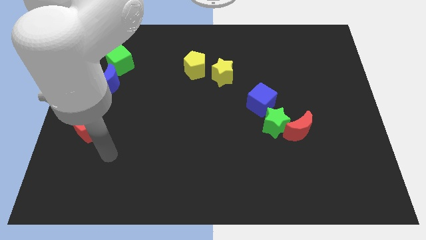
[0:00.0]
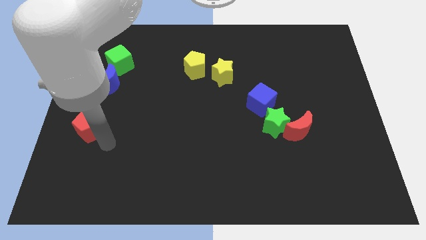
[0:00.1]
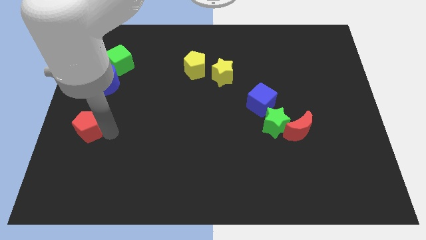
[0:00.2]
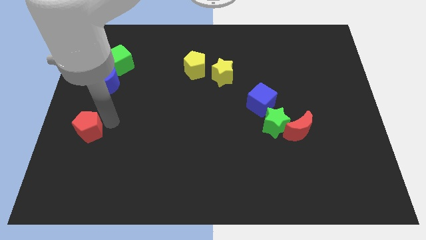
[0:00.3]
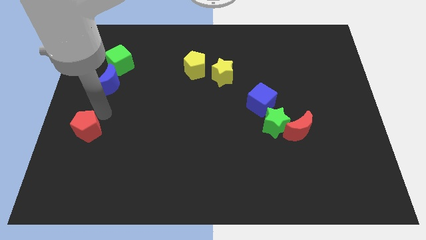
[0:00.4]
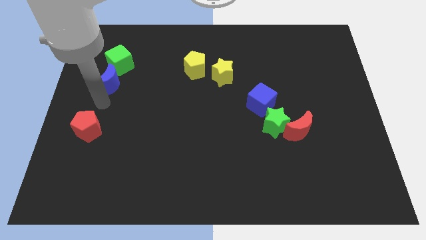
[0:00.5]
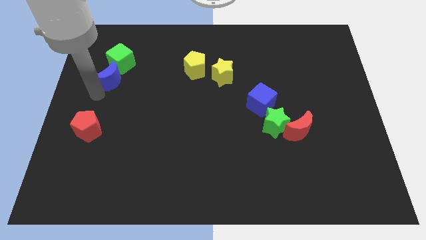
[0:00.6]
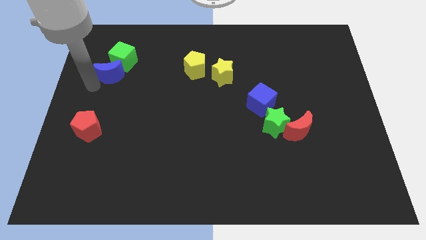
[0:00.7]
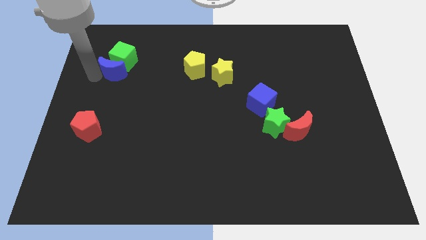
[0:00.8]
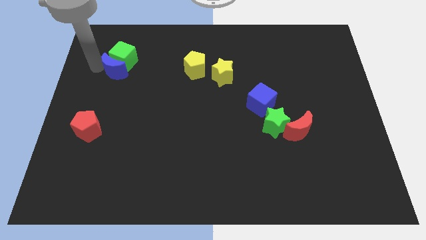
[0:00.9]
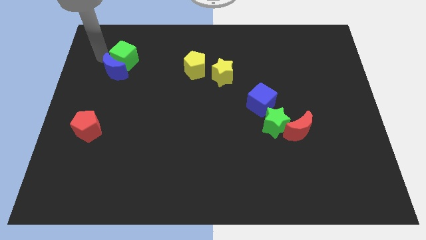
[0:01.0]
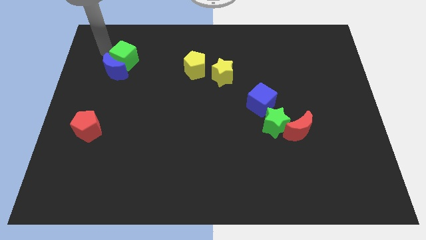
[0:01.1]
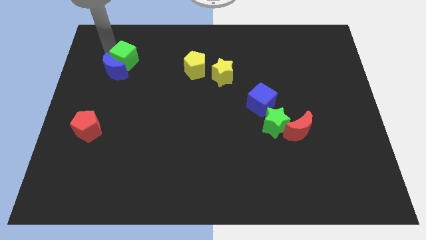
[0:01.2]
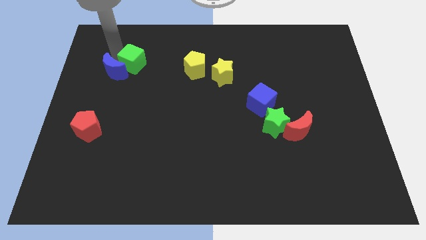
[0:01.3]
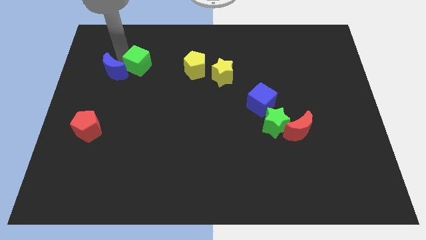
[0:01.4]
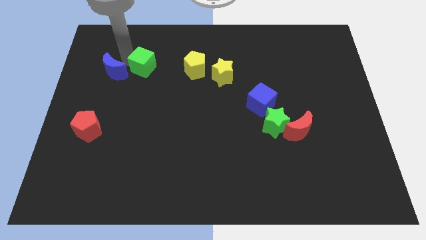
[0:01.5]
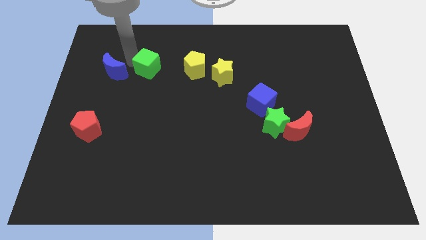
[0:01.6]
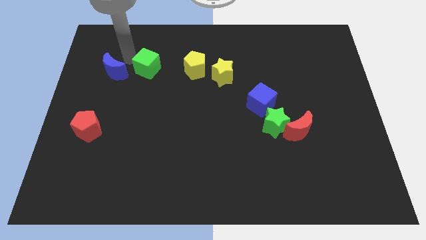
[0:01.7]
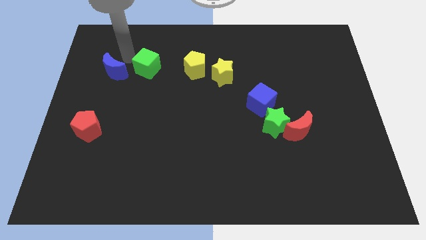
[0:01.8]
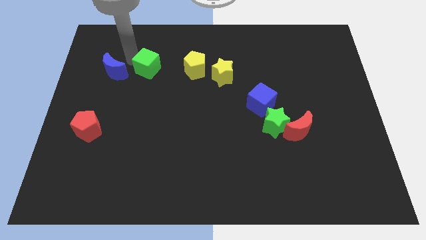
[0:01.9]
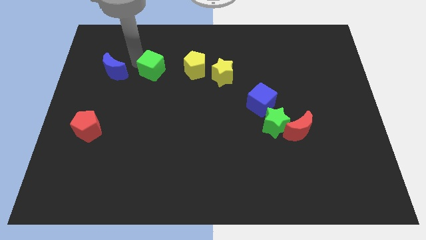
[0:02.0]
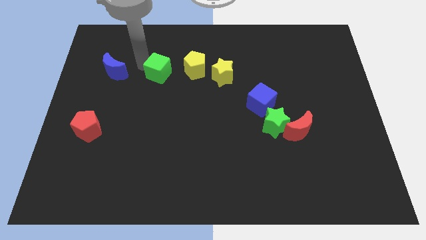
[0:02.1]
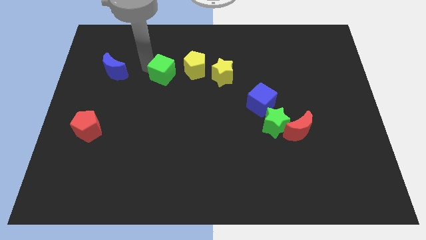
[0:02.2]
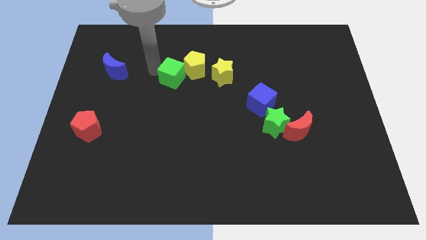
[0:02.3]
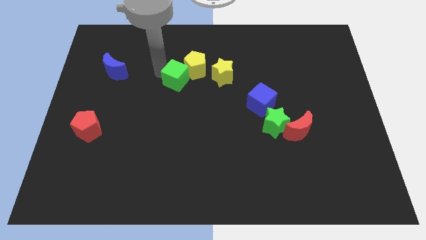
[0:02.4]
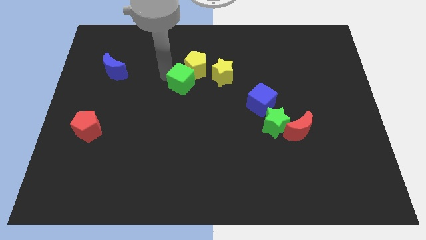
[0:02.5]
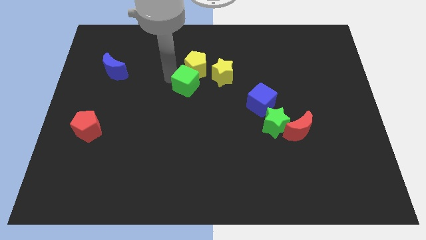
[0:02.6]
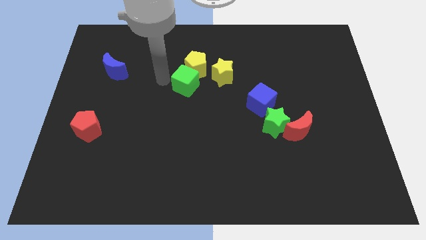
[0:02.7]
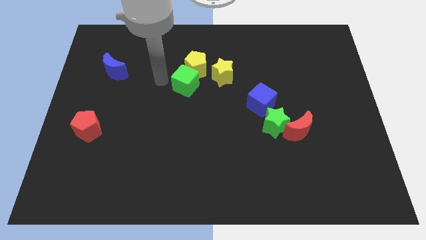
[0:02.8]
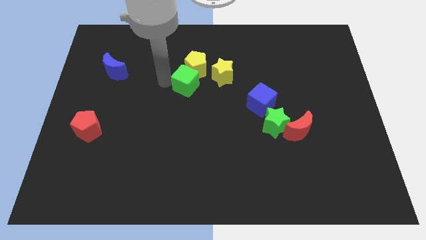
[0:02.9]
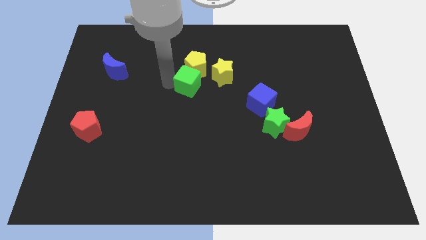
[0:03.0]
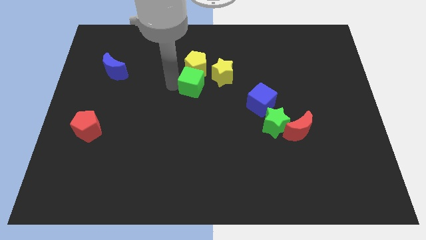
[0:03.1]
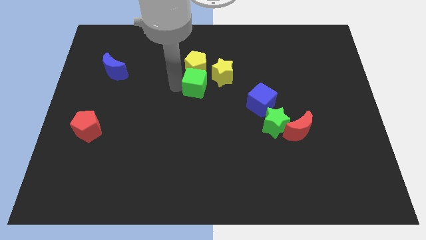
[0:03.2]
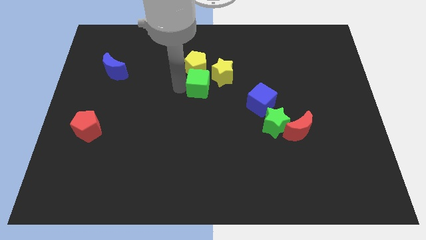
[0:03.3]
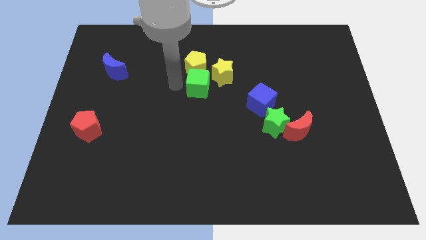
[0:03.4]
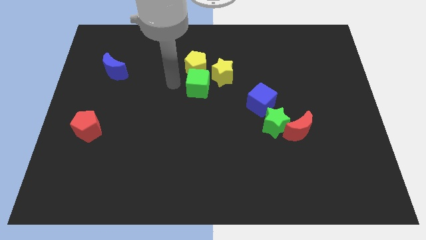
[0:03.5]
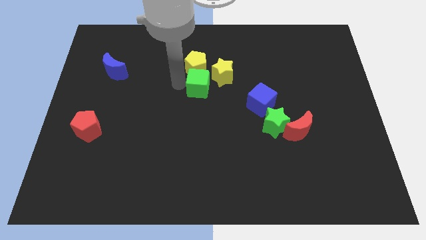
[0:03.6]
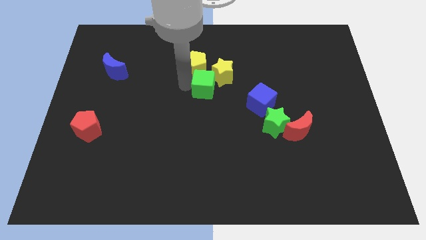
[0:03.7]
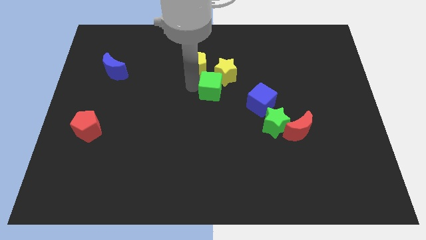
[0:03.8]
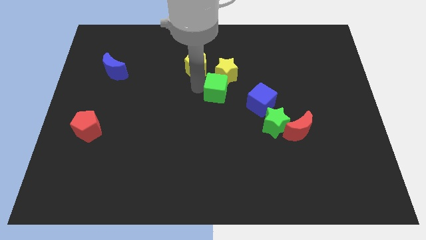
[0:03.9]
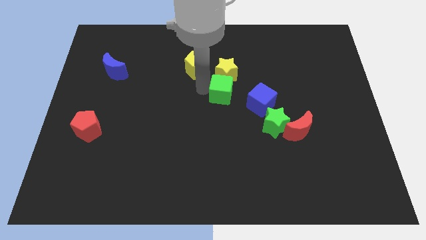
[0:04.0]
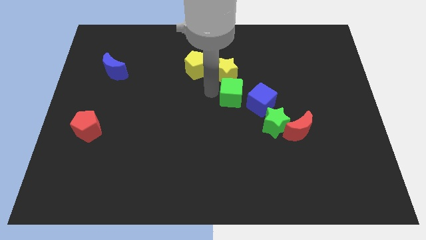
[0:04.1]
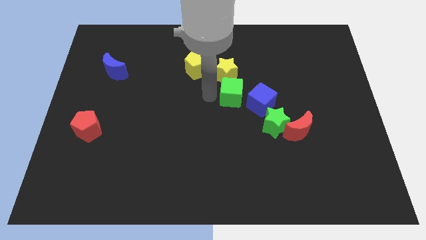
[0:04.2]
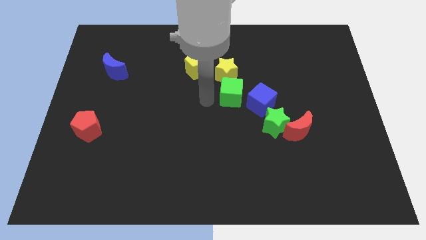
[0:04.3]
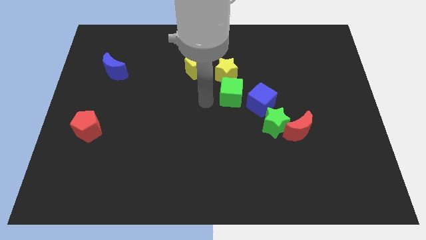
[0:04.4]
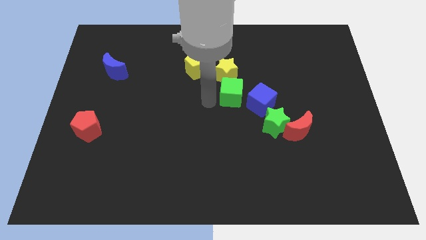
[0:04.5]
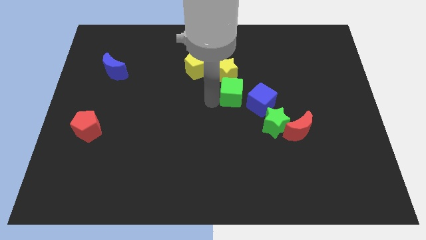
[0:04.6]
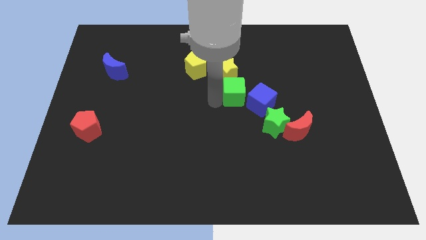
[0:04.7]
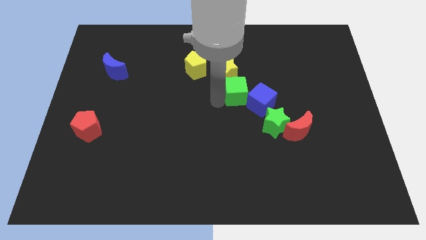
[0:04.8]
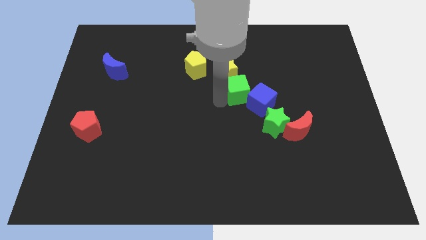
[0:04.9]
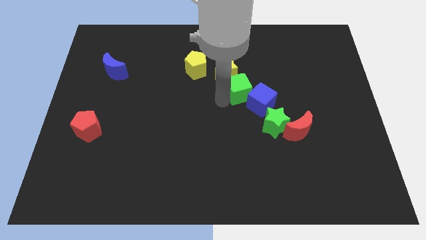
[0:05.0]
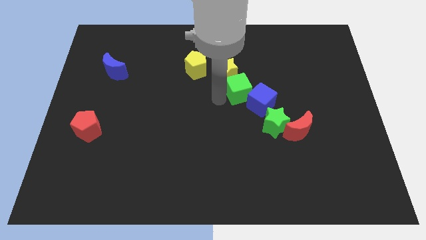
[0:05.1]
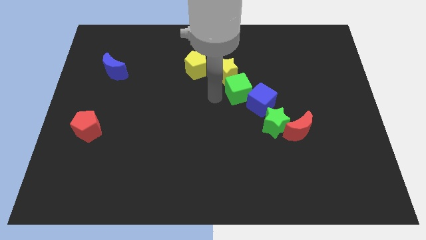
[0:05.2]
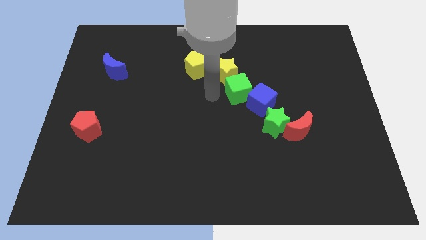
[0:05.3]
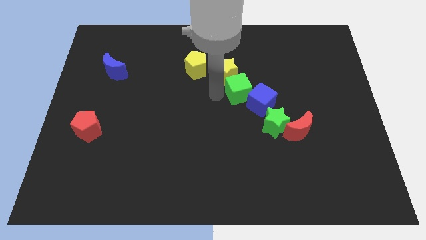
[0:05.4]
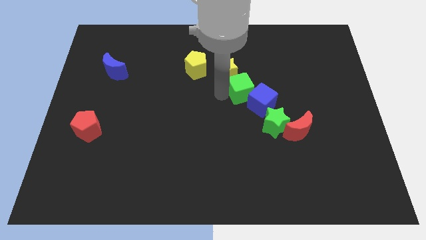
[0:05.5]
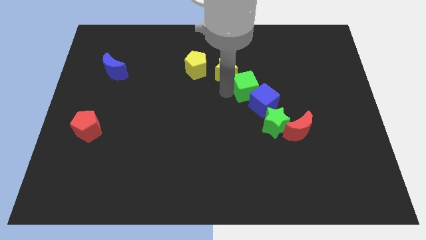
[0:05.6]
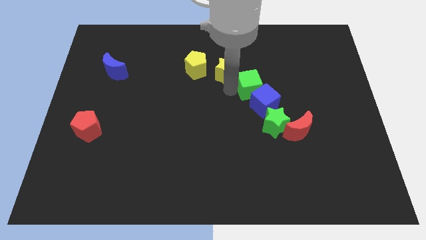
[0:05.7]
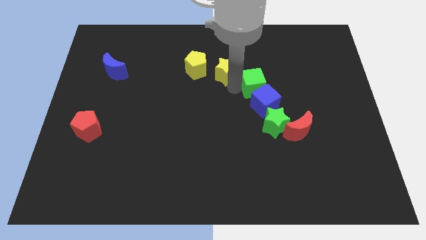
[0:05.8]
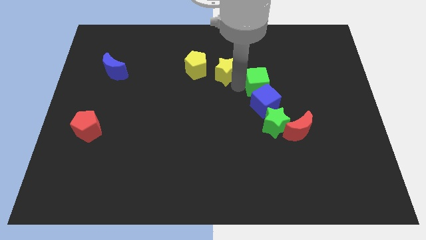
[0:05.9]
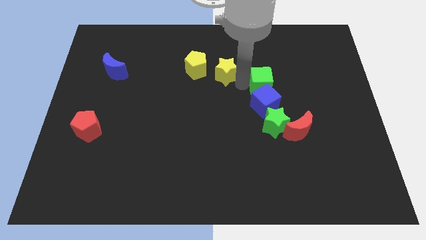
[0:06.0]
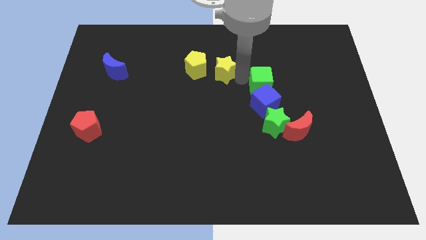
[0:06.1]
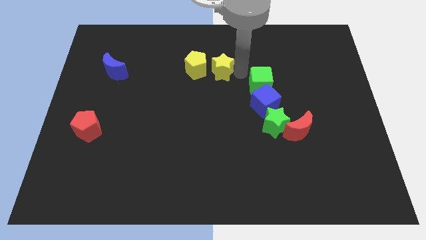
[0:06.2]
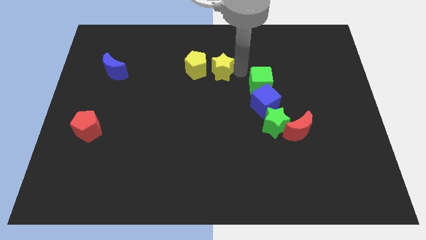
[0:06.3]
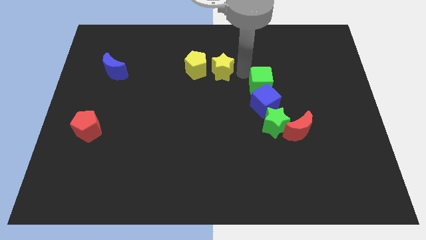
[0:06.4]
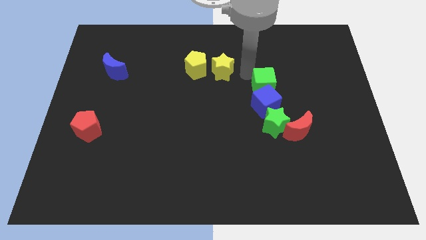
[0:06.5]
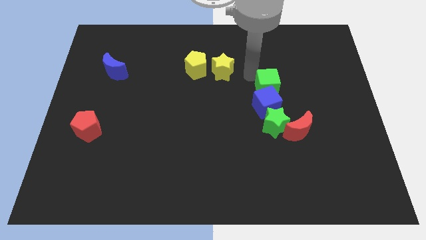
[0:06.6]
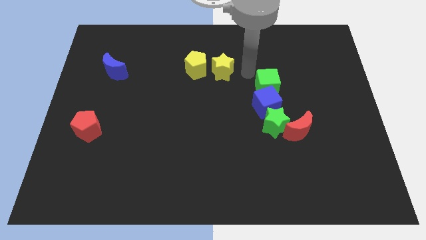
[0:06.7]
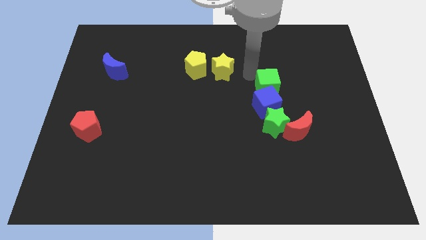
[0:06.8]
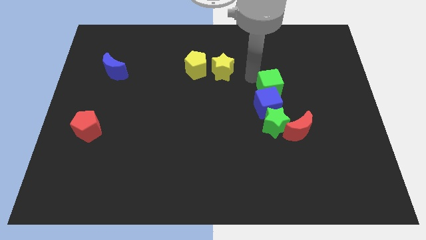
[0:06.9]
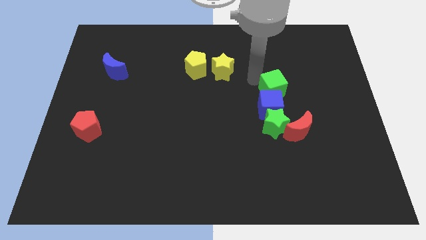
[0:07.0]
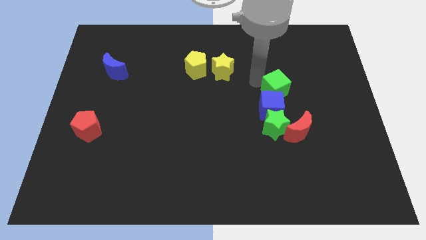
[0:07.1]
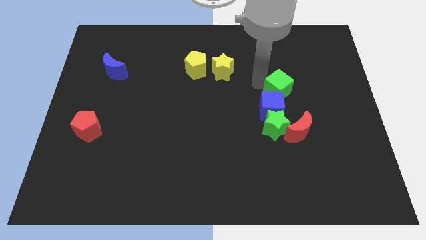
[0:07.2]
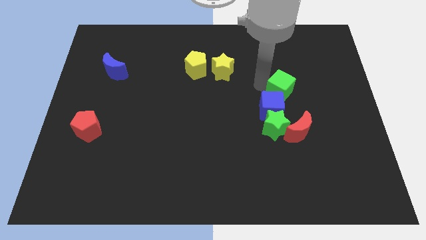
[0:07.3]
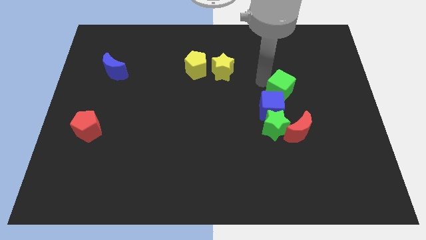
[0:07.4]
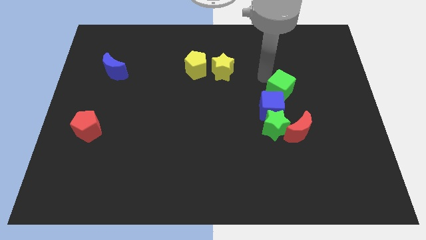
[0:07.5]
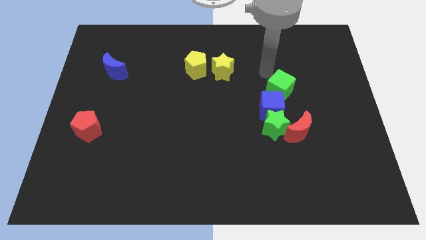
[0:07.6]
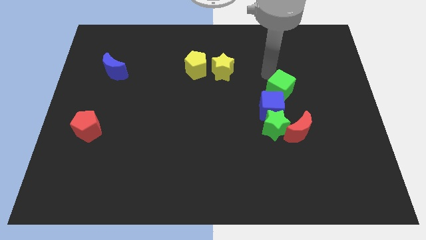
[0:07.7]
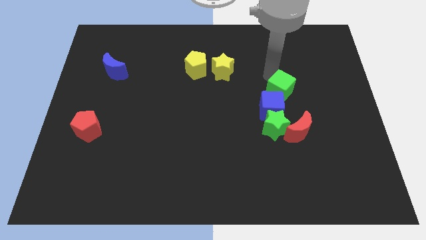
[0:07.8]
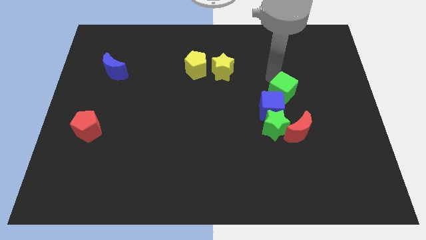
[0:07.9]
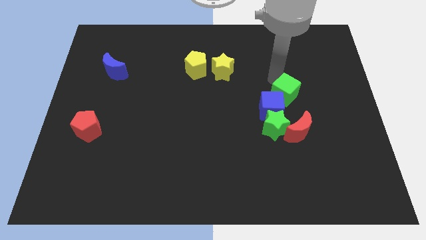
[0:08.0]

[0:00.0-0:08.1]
push the green cube to the top right of the green star
